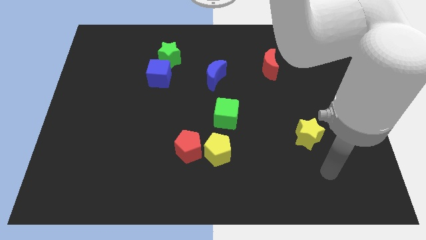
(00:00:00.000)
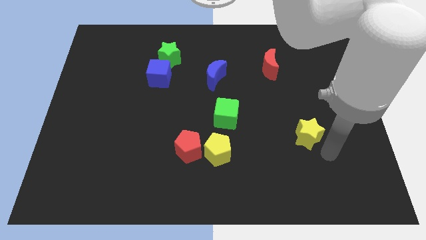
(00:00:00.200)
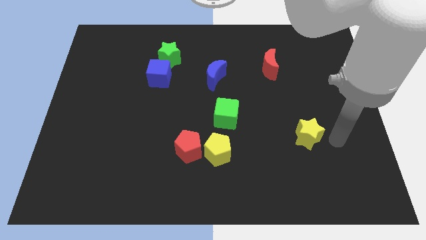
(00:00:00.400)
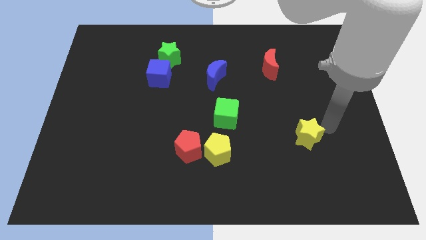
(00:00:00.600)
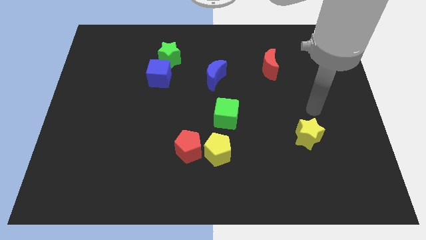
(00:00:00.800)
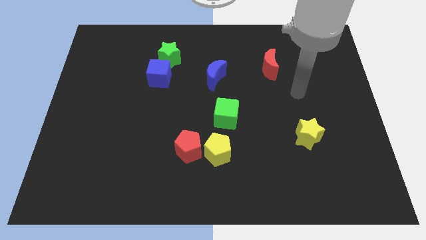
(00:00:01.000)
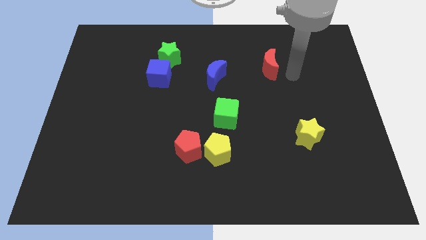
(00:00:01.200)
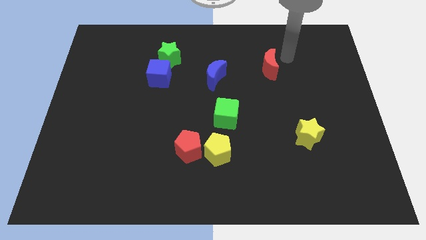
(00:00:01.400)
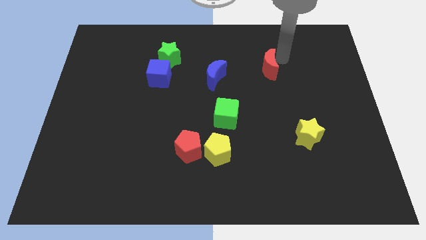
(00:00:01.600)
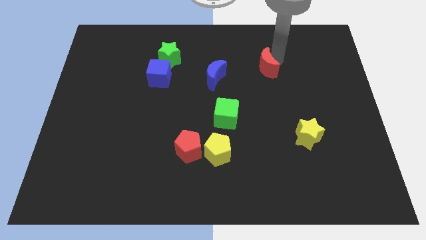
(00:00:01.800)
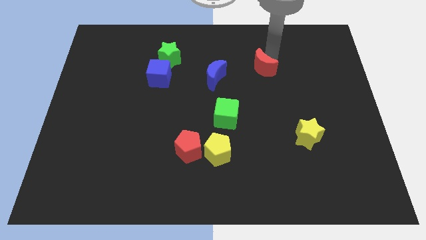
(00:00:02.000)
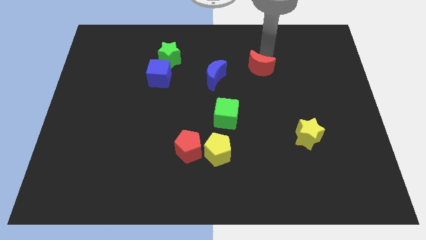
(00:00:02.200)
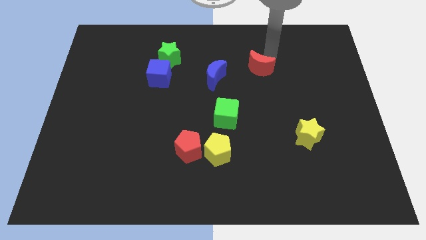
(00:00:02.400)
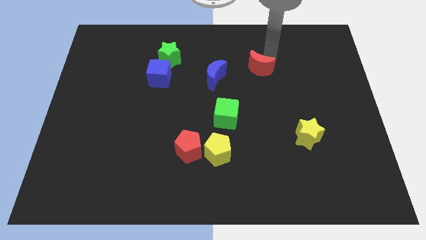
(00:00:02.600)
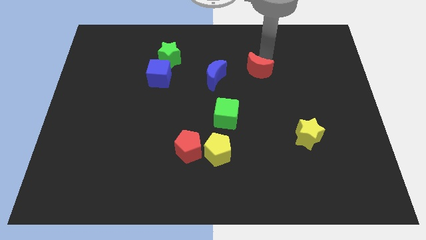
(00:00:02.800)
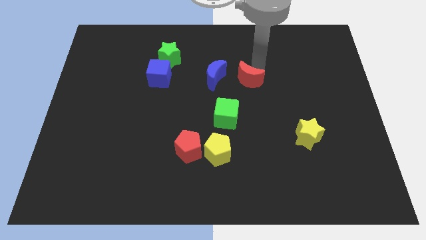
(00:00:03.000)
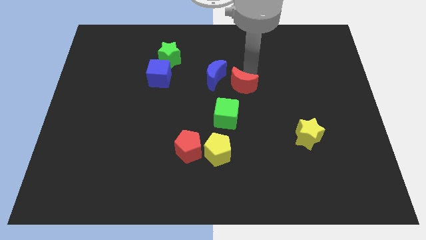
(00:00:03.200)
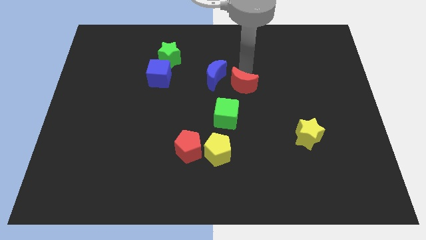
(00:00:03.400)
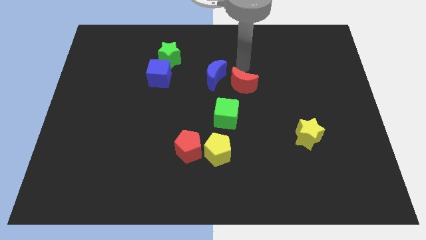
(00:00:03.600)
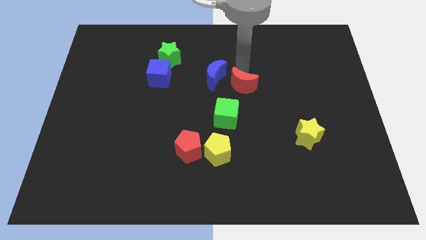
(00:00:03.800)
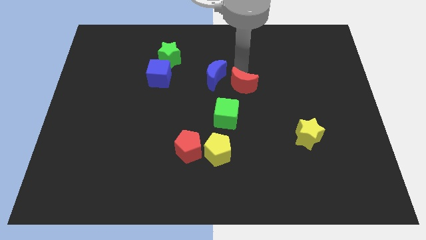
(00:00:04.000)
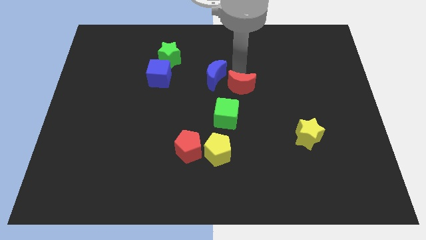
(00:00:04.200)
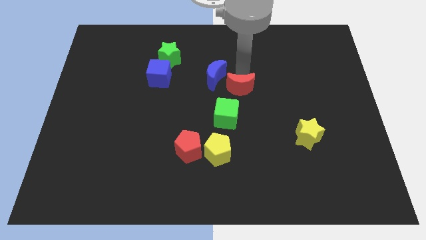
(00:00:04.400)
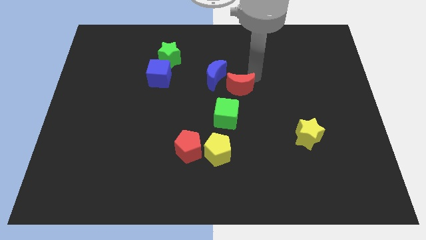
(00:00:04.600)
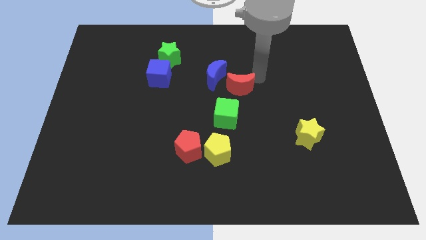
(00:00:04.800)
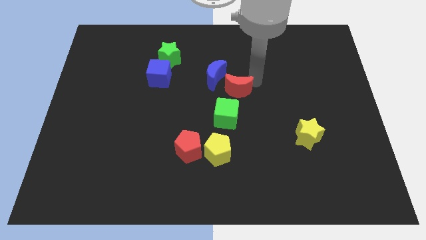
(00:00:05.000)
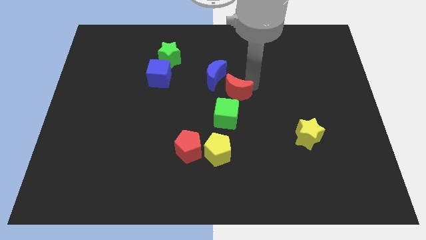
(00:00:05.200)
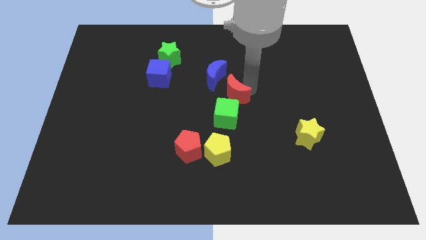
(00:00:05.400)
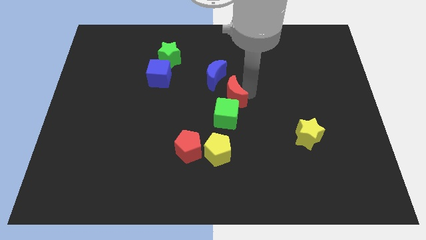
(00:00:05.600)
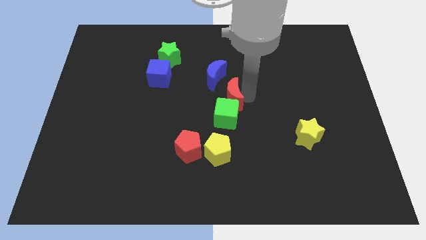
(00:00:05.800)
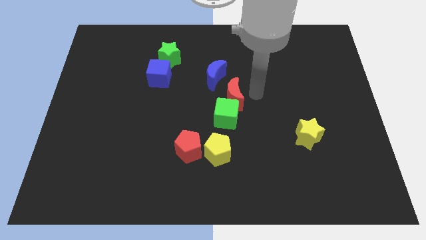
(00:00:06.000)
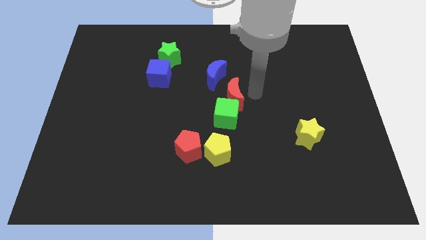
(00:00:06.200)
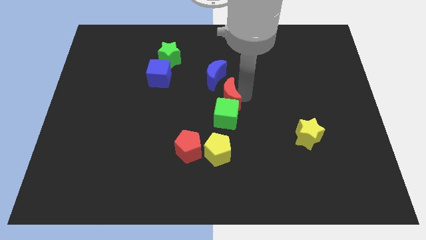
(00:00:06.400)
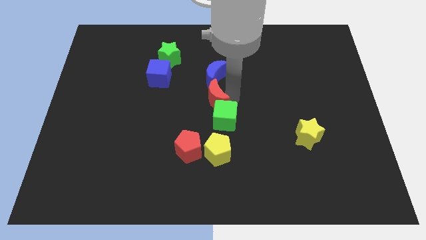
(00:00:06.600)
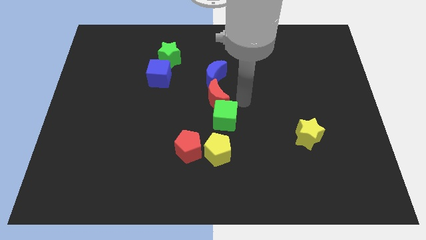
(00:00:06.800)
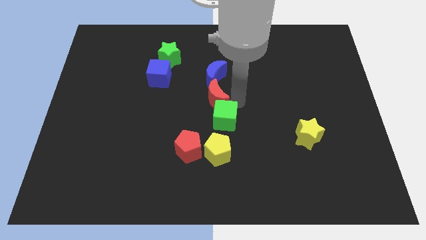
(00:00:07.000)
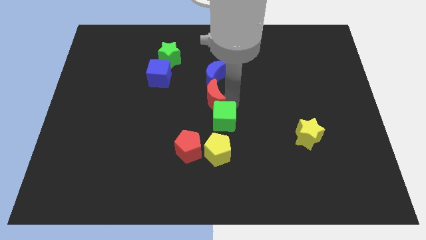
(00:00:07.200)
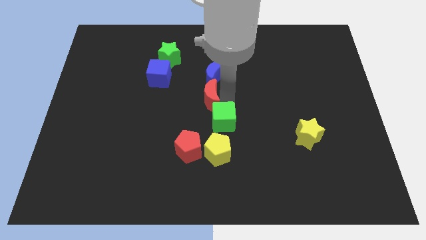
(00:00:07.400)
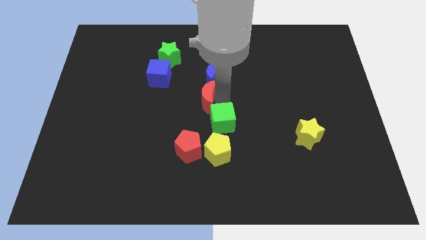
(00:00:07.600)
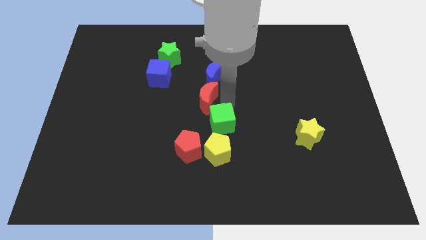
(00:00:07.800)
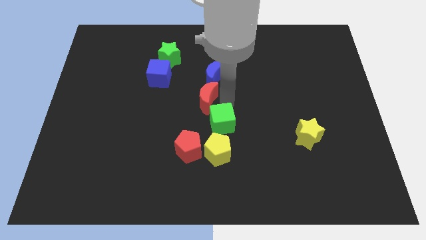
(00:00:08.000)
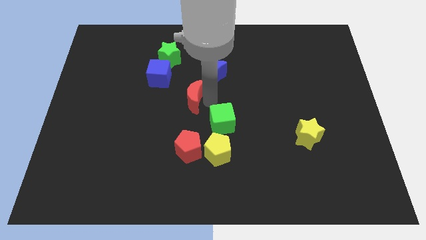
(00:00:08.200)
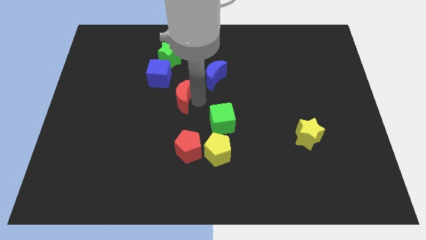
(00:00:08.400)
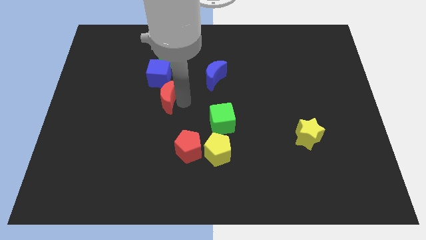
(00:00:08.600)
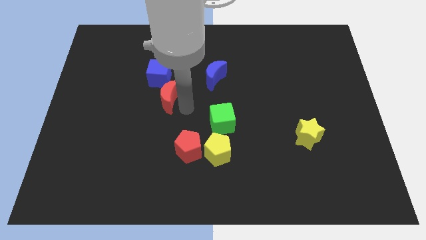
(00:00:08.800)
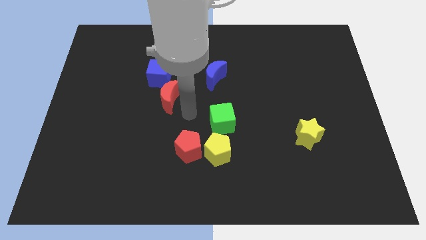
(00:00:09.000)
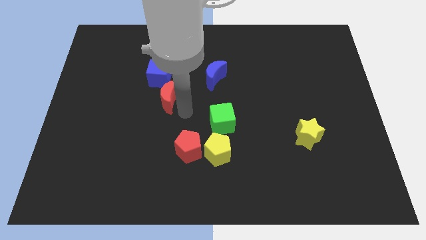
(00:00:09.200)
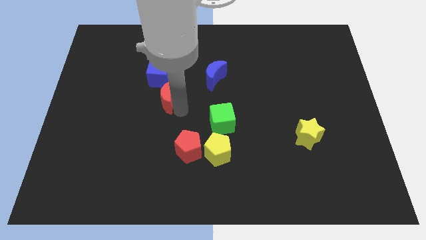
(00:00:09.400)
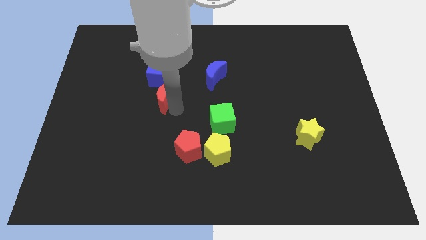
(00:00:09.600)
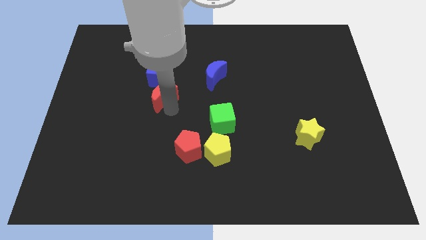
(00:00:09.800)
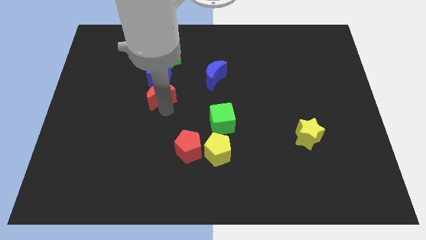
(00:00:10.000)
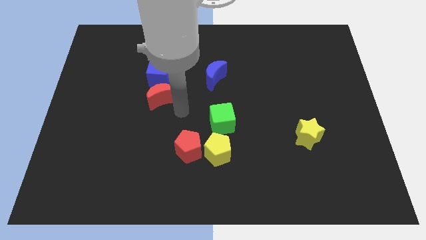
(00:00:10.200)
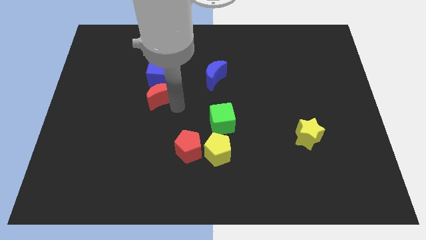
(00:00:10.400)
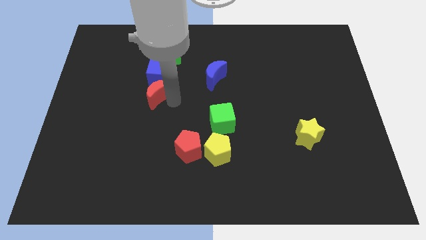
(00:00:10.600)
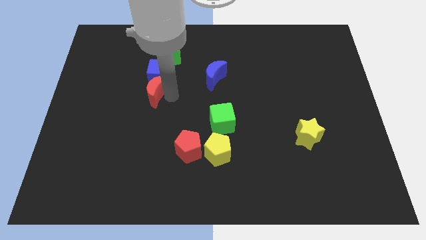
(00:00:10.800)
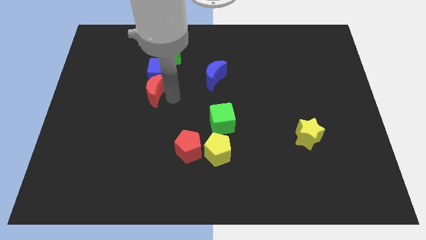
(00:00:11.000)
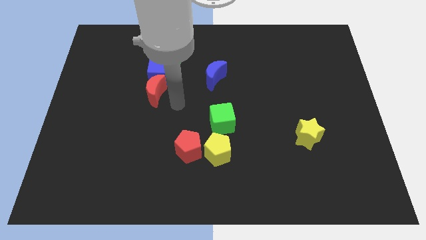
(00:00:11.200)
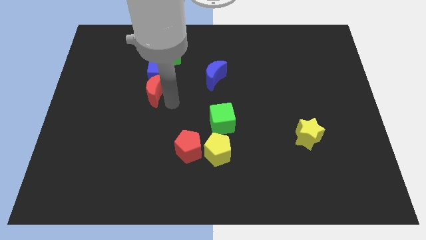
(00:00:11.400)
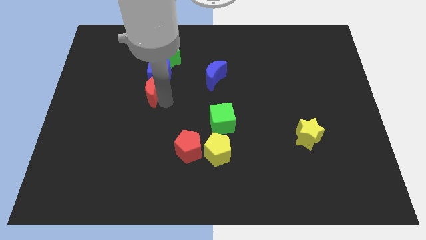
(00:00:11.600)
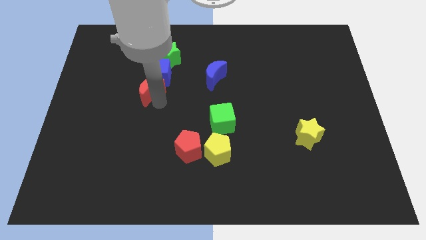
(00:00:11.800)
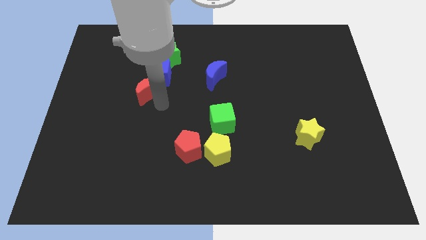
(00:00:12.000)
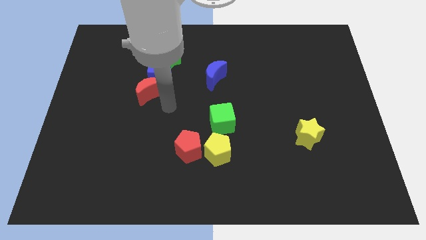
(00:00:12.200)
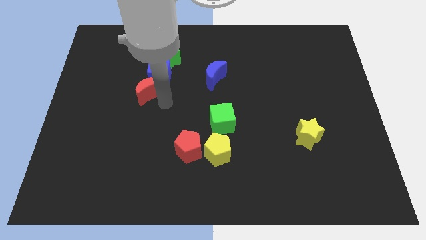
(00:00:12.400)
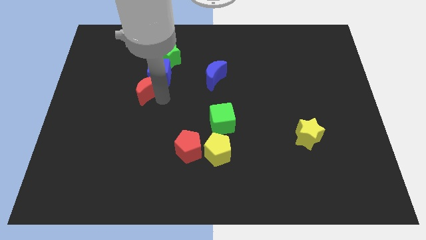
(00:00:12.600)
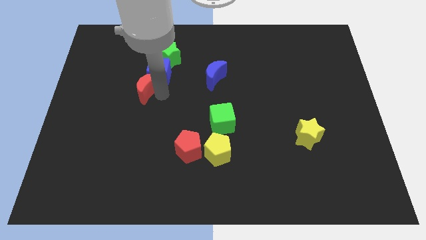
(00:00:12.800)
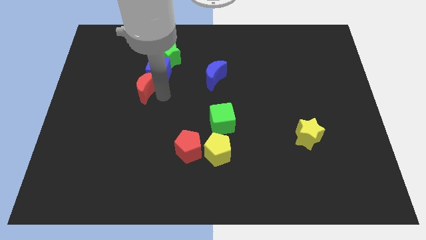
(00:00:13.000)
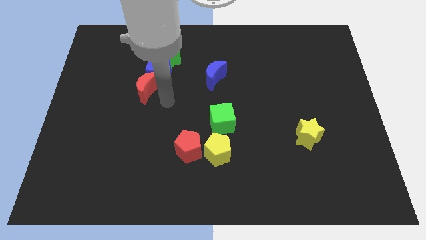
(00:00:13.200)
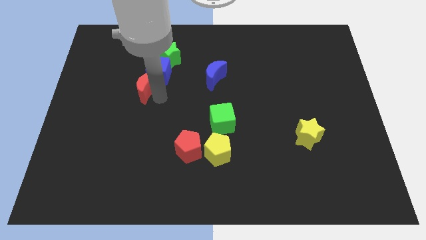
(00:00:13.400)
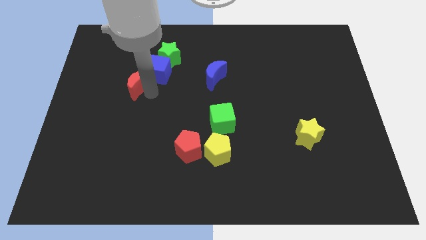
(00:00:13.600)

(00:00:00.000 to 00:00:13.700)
move the red moon just left of the blue cube

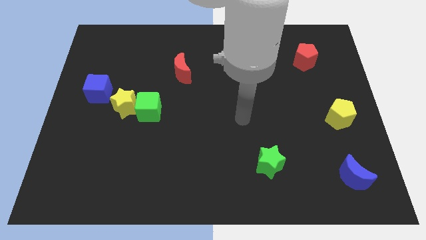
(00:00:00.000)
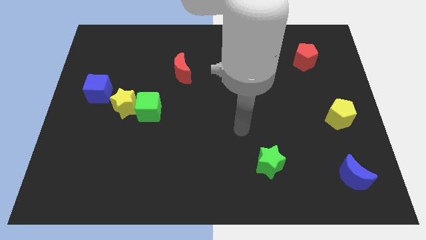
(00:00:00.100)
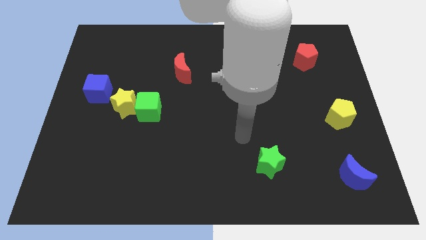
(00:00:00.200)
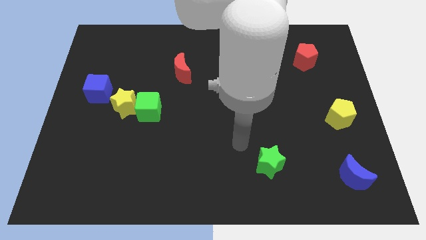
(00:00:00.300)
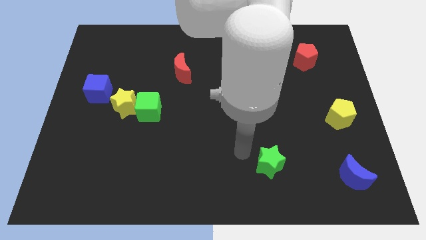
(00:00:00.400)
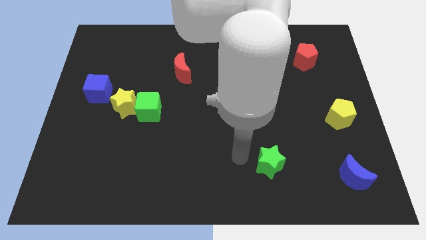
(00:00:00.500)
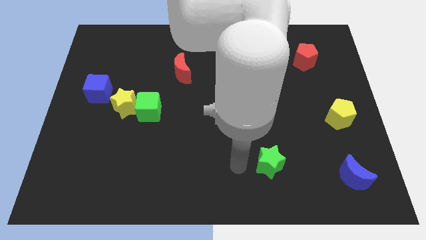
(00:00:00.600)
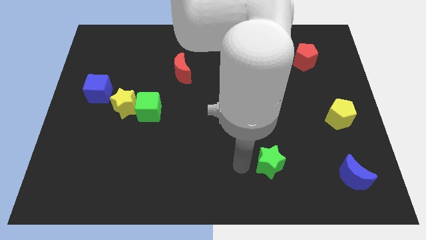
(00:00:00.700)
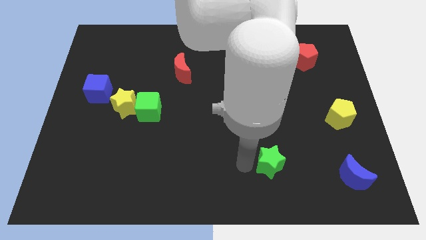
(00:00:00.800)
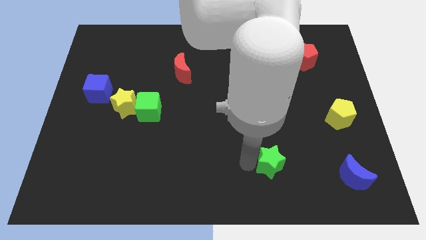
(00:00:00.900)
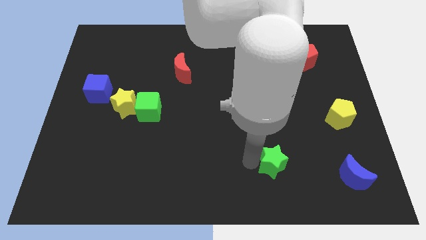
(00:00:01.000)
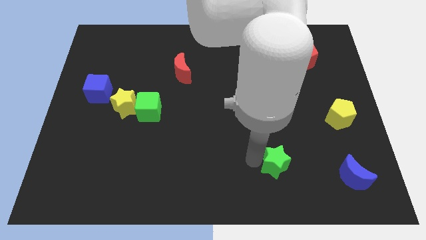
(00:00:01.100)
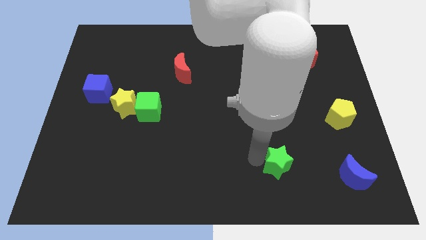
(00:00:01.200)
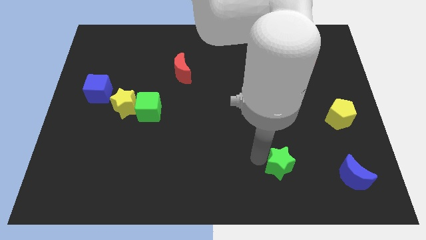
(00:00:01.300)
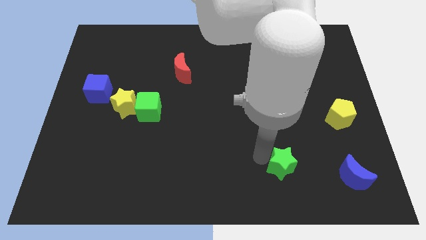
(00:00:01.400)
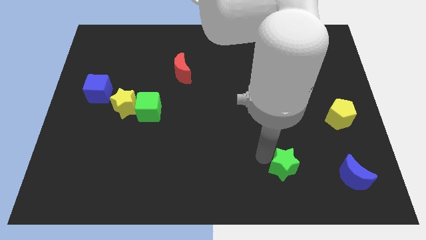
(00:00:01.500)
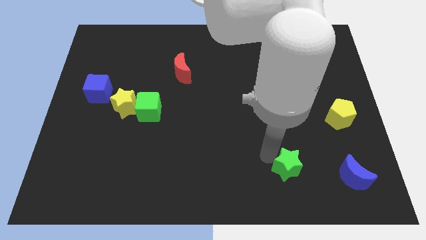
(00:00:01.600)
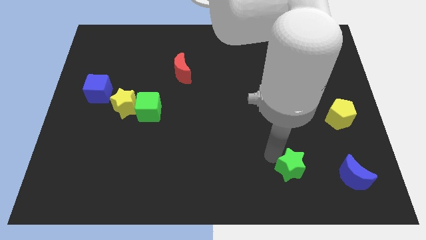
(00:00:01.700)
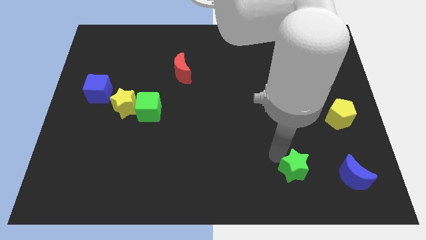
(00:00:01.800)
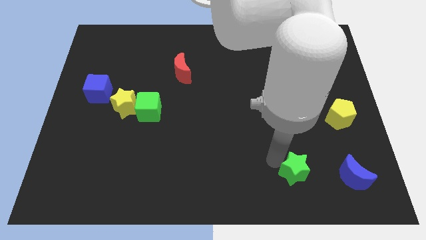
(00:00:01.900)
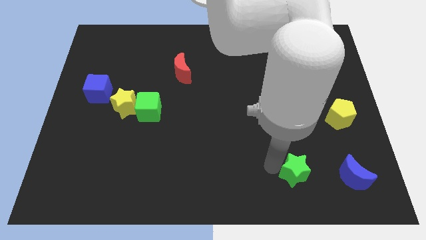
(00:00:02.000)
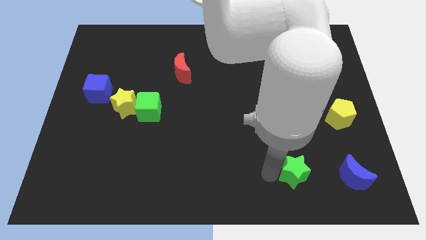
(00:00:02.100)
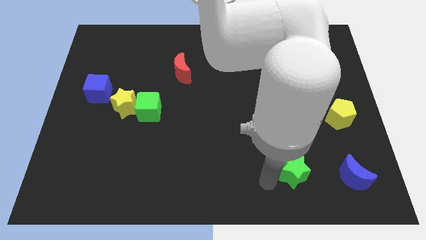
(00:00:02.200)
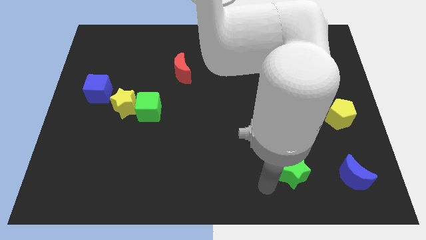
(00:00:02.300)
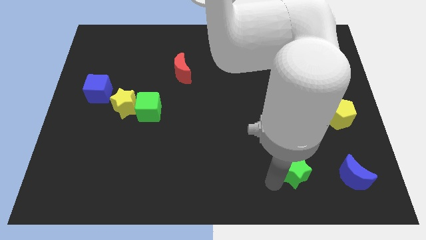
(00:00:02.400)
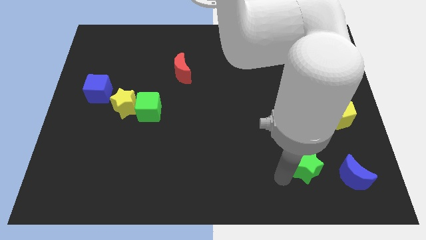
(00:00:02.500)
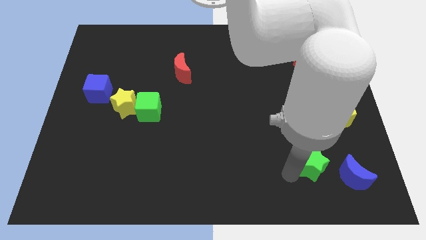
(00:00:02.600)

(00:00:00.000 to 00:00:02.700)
move the green star to the top left of the blue moon
